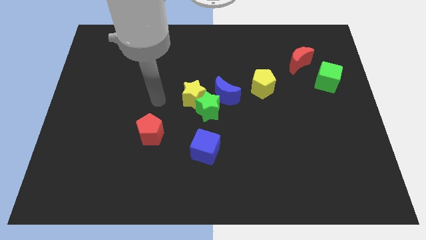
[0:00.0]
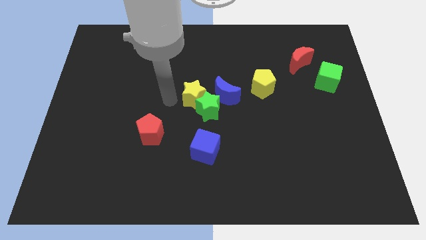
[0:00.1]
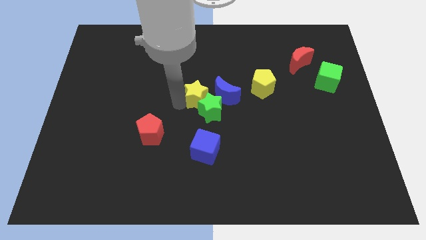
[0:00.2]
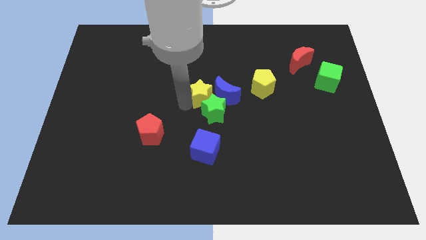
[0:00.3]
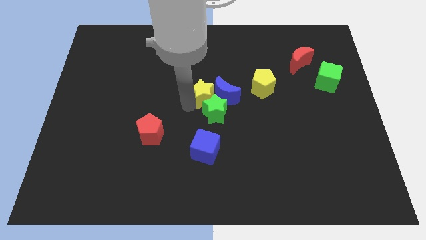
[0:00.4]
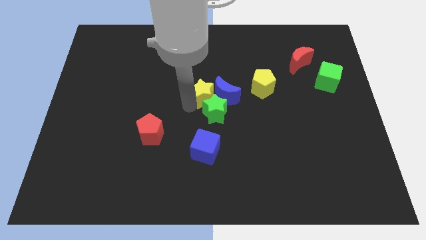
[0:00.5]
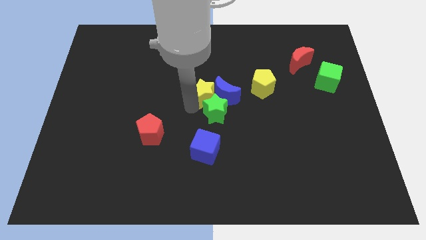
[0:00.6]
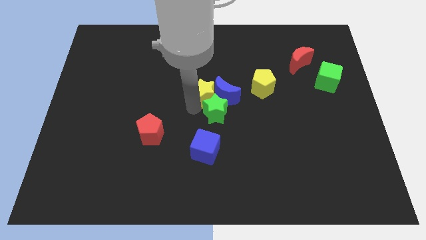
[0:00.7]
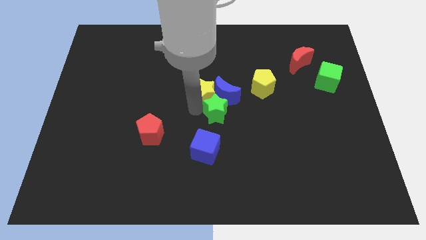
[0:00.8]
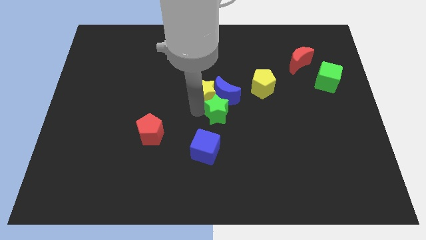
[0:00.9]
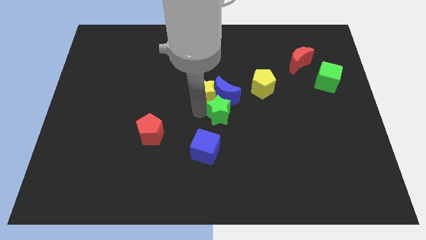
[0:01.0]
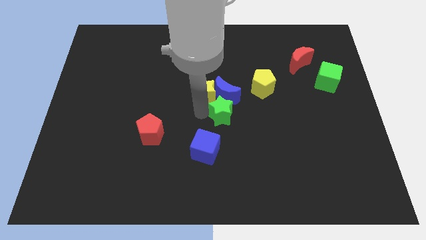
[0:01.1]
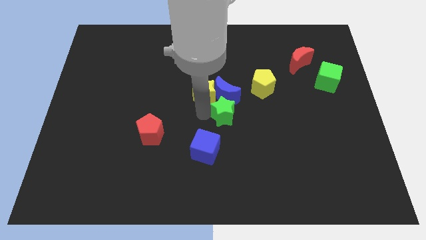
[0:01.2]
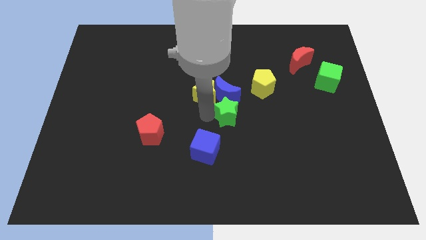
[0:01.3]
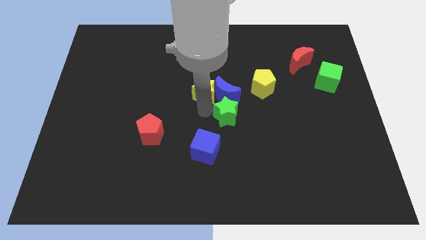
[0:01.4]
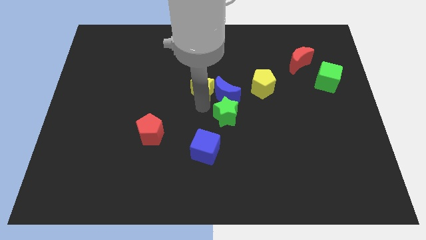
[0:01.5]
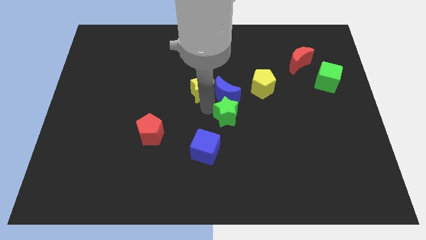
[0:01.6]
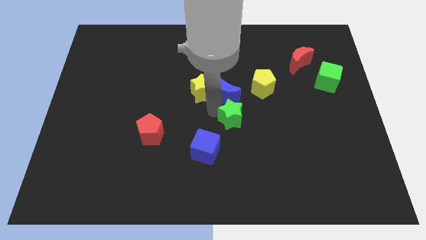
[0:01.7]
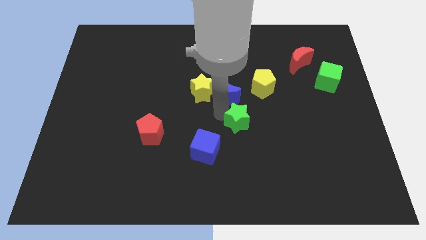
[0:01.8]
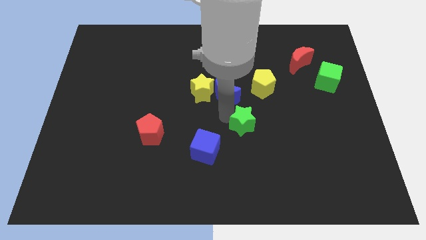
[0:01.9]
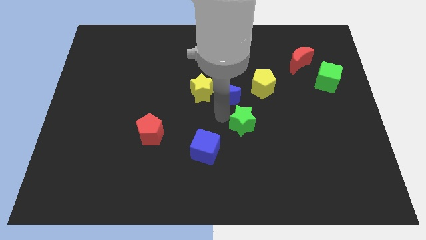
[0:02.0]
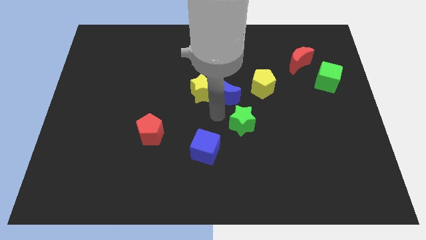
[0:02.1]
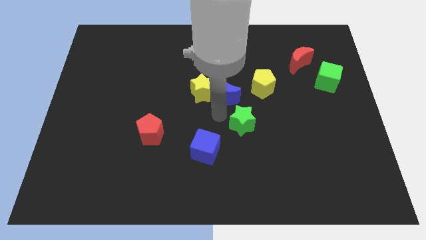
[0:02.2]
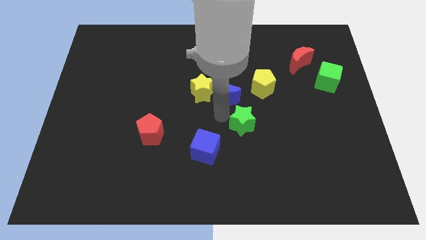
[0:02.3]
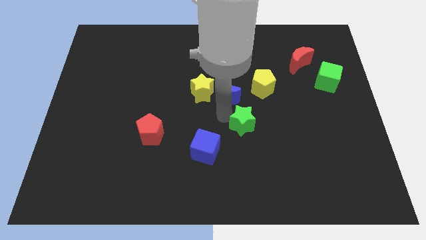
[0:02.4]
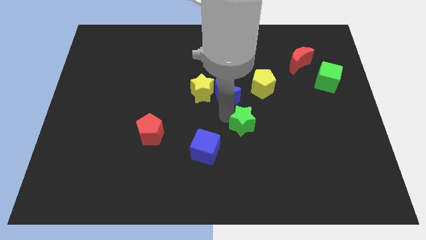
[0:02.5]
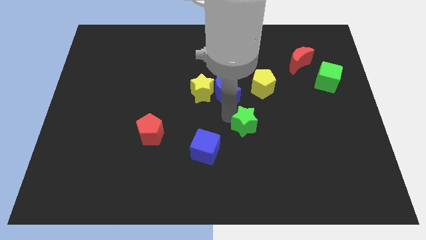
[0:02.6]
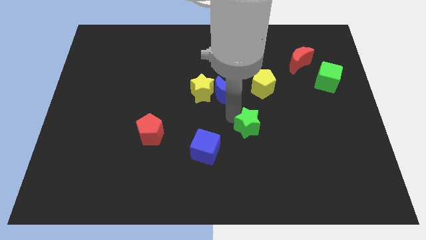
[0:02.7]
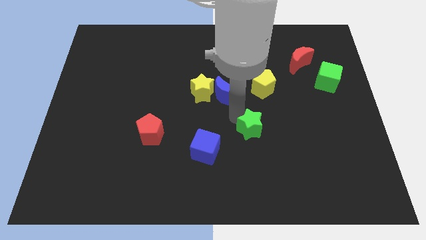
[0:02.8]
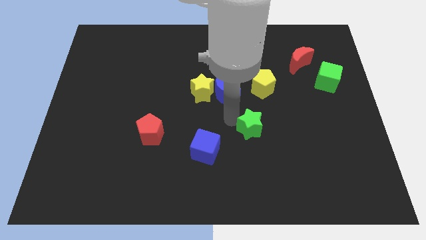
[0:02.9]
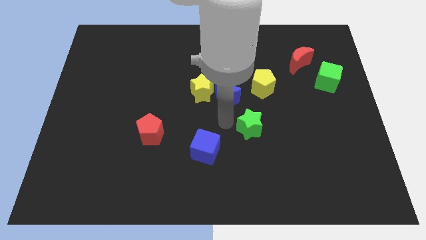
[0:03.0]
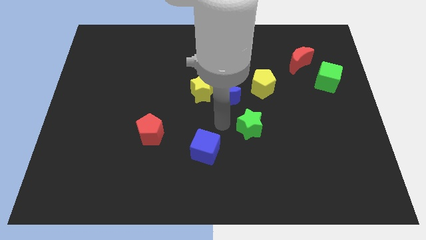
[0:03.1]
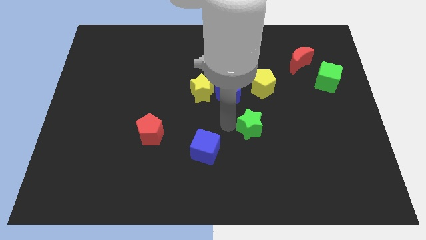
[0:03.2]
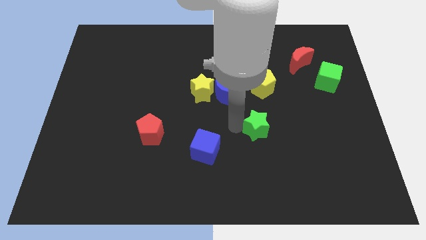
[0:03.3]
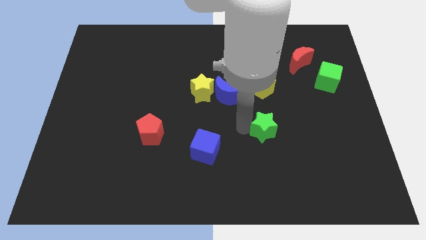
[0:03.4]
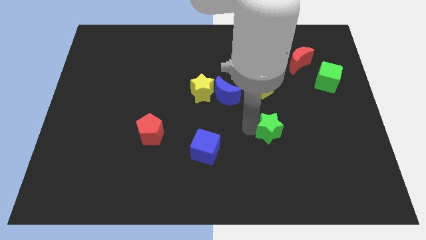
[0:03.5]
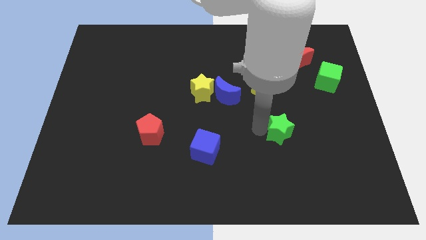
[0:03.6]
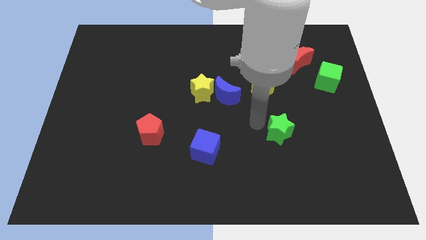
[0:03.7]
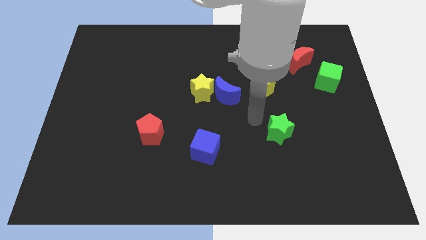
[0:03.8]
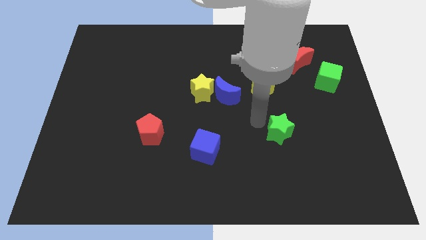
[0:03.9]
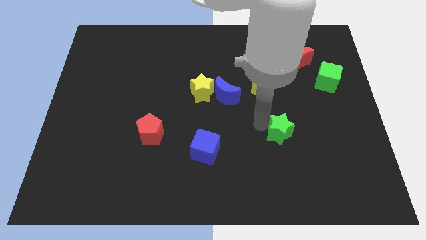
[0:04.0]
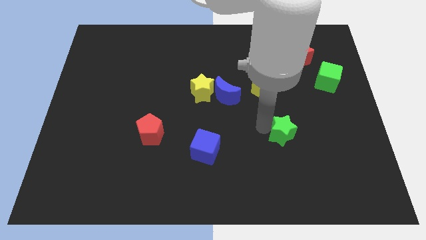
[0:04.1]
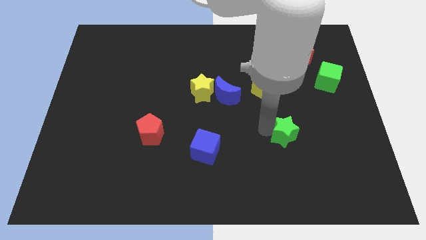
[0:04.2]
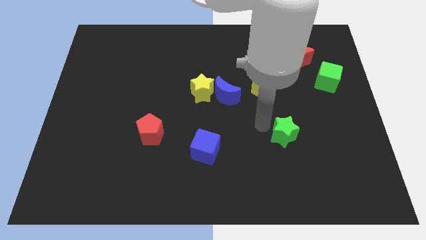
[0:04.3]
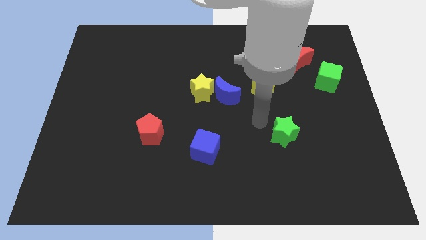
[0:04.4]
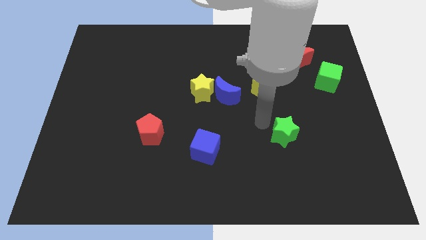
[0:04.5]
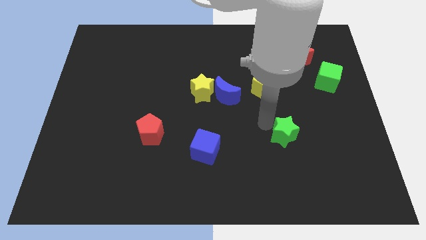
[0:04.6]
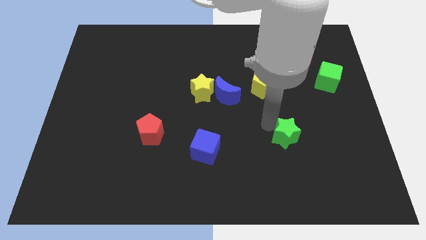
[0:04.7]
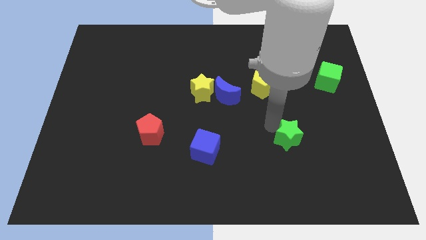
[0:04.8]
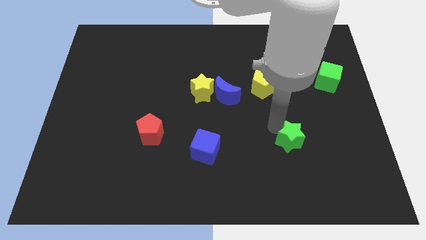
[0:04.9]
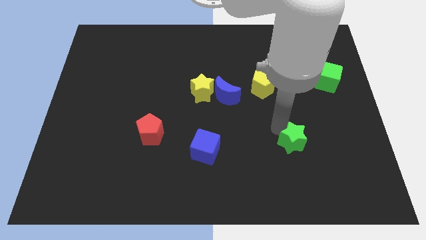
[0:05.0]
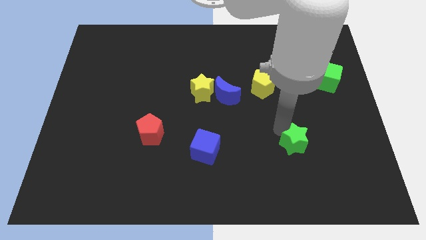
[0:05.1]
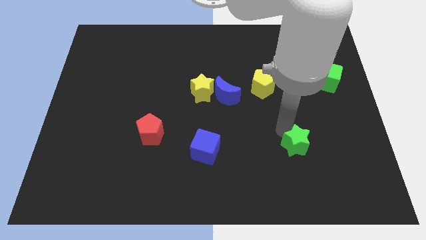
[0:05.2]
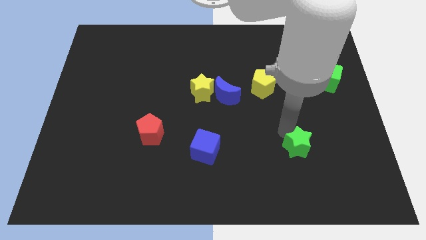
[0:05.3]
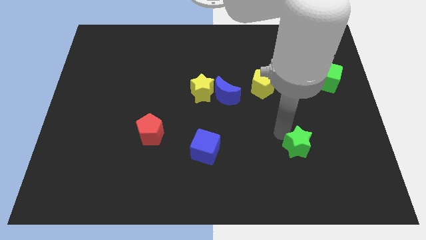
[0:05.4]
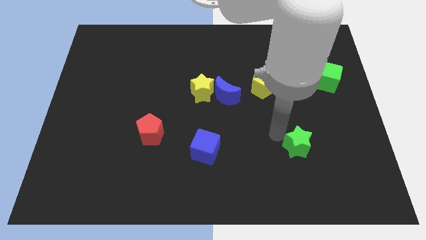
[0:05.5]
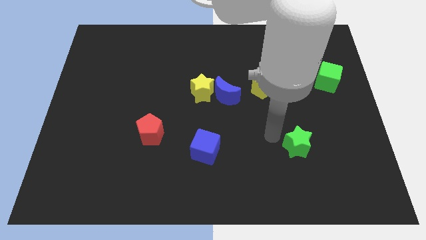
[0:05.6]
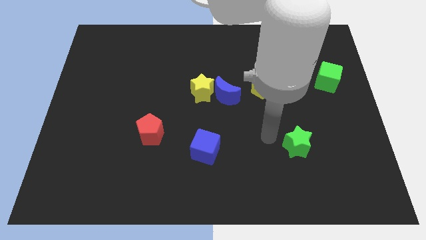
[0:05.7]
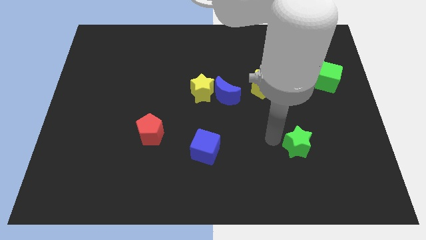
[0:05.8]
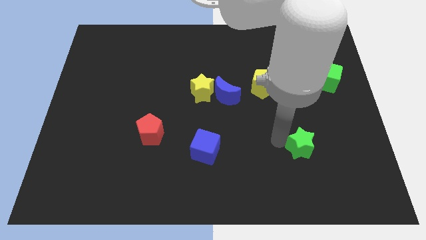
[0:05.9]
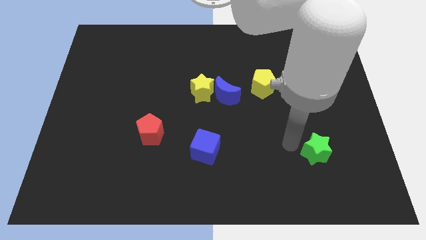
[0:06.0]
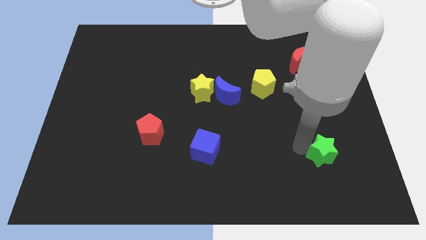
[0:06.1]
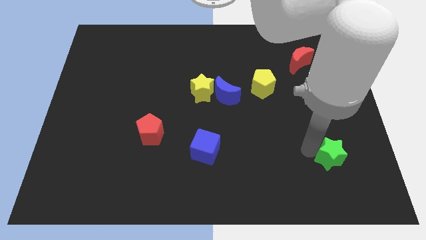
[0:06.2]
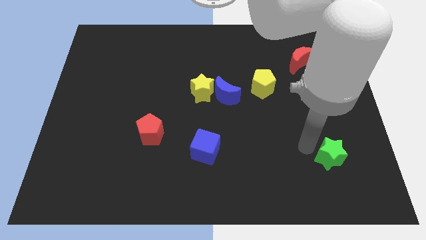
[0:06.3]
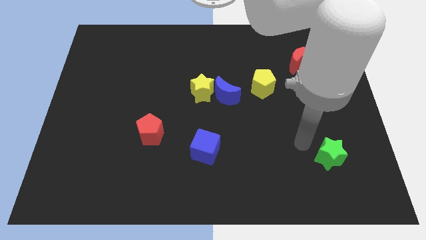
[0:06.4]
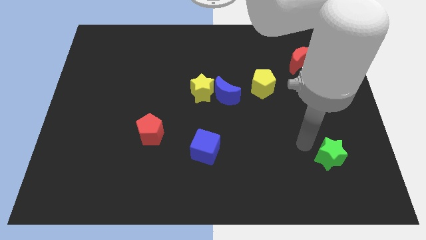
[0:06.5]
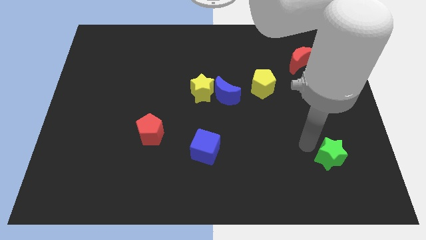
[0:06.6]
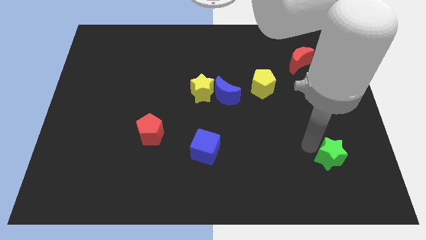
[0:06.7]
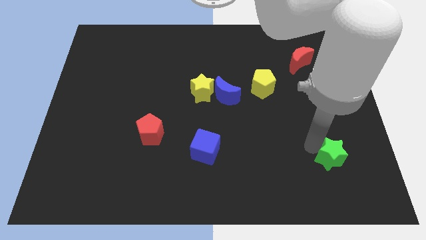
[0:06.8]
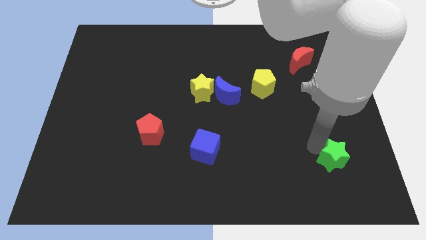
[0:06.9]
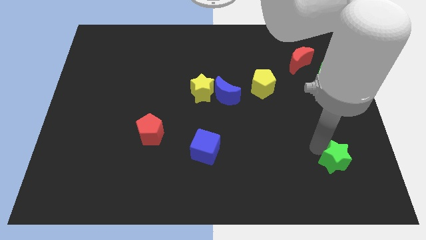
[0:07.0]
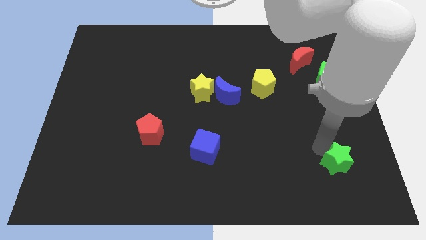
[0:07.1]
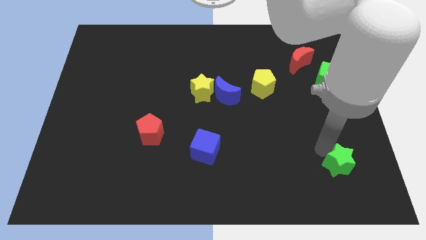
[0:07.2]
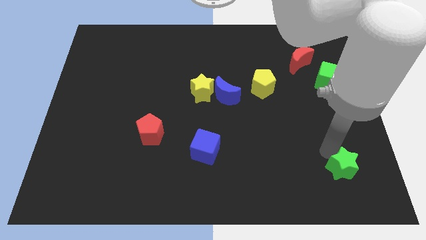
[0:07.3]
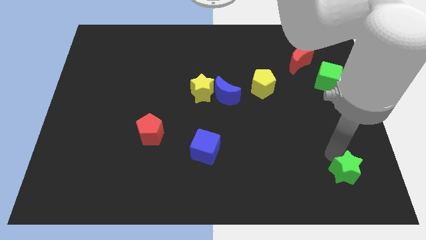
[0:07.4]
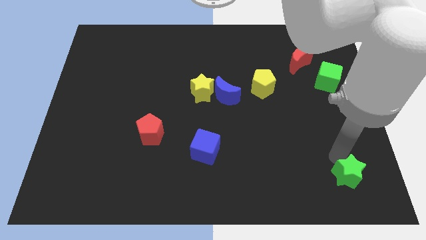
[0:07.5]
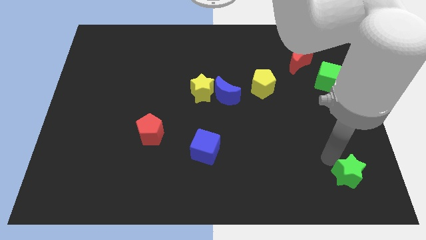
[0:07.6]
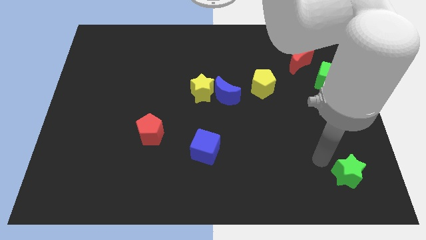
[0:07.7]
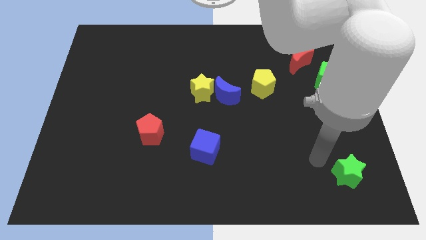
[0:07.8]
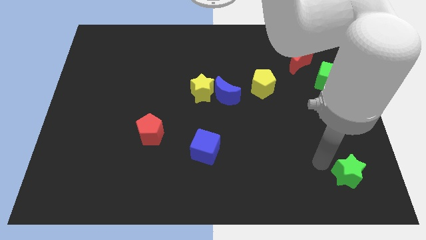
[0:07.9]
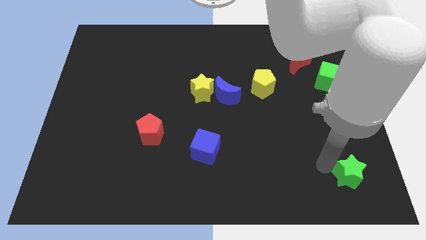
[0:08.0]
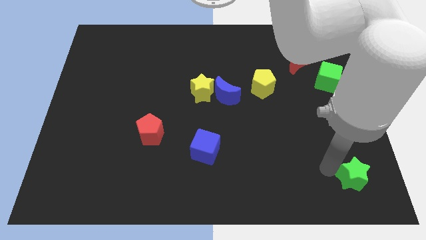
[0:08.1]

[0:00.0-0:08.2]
put the green star to the bottom right of the board
